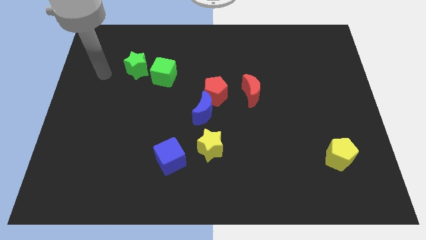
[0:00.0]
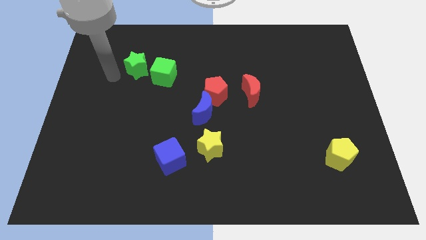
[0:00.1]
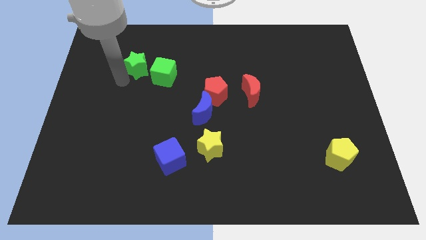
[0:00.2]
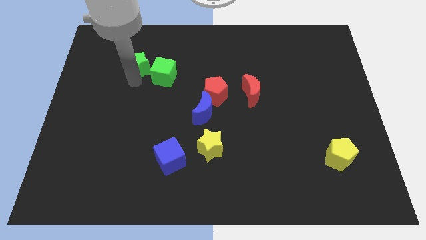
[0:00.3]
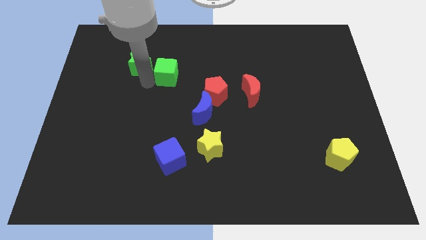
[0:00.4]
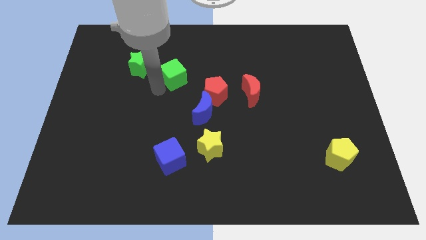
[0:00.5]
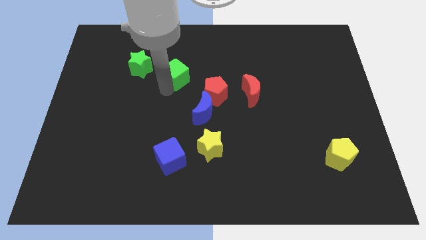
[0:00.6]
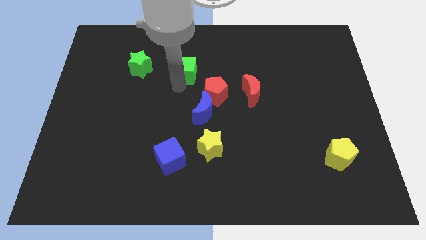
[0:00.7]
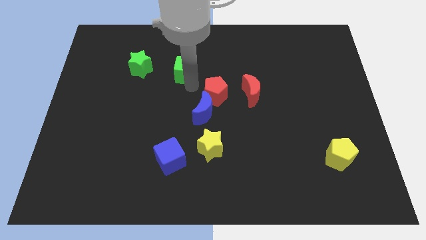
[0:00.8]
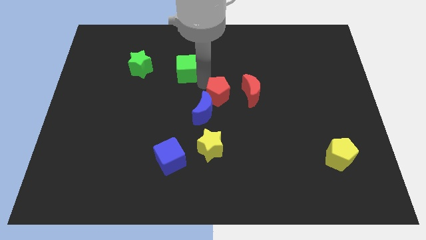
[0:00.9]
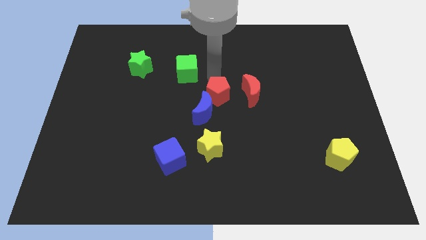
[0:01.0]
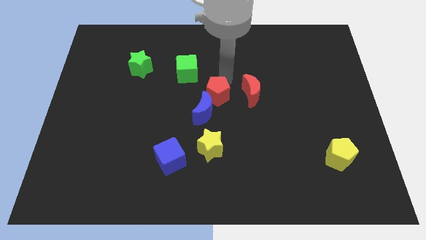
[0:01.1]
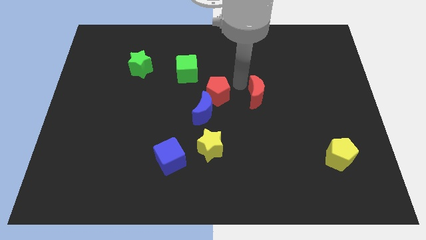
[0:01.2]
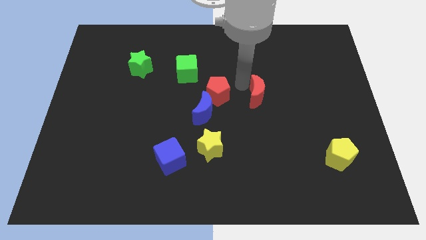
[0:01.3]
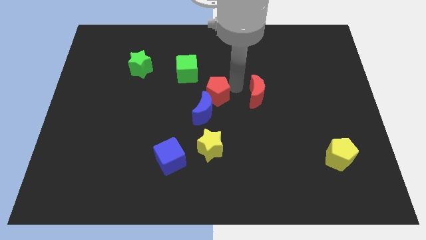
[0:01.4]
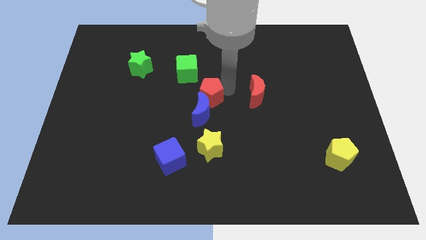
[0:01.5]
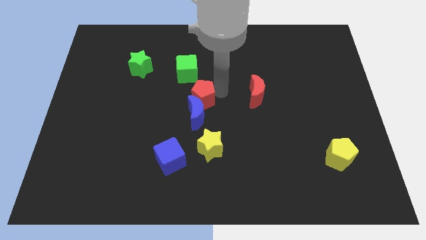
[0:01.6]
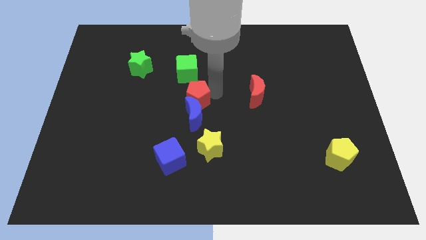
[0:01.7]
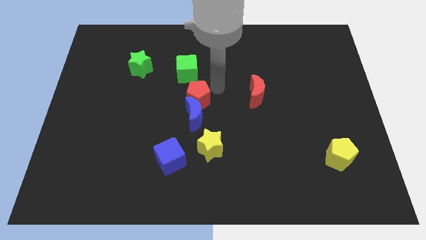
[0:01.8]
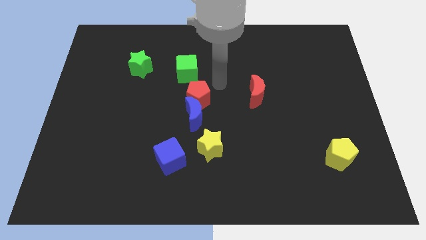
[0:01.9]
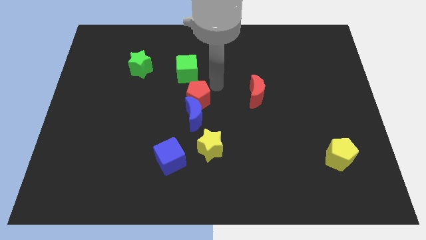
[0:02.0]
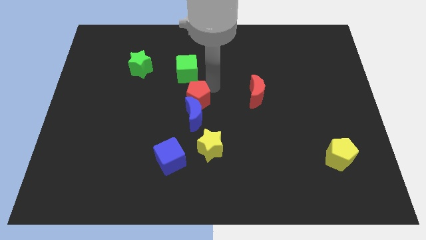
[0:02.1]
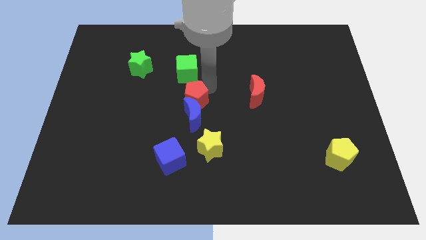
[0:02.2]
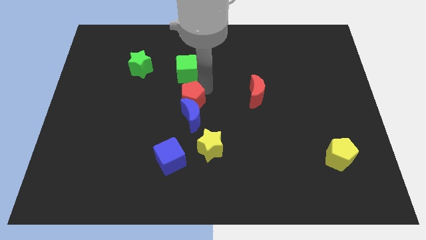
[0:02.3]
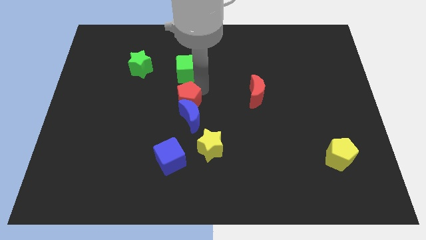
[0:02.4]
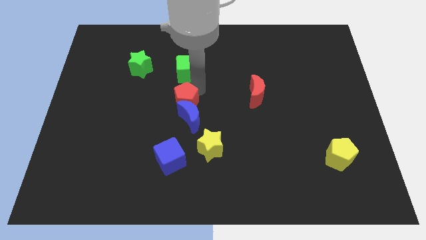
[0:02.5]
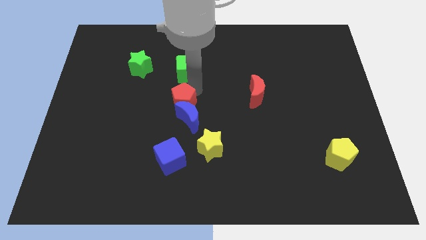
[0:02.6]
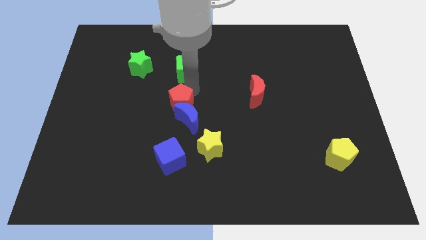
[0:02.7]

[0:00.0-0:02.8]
move the red pentagon somewhat downwards and then to the left

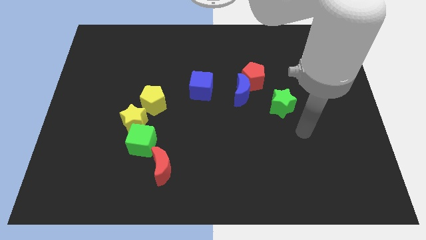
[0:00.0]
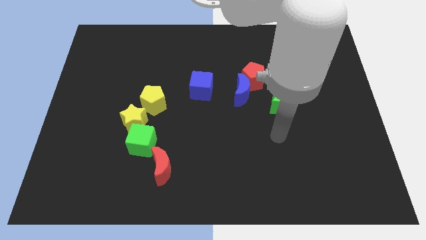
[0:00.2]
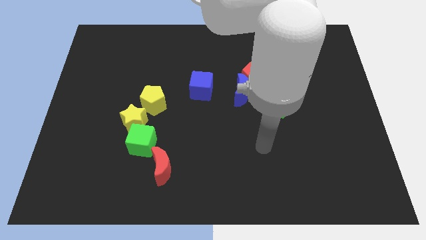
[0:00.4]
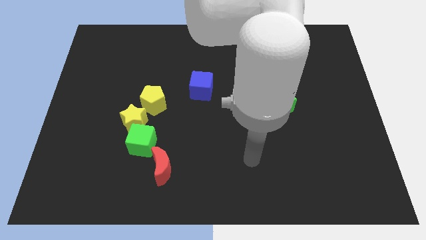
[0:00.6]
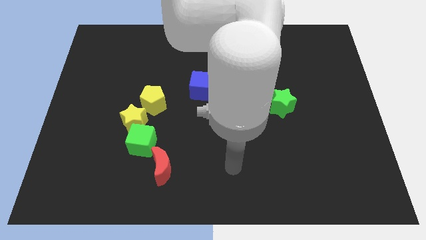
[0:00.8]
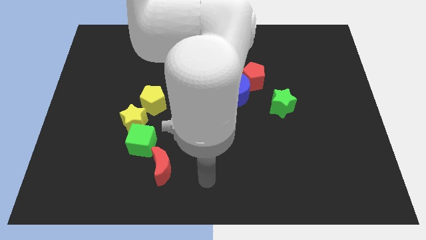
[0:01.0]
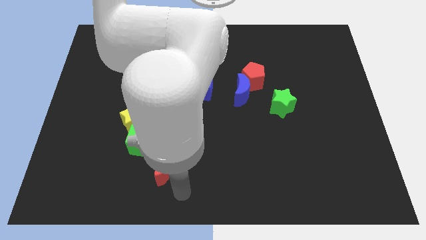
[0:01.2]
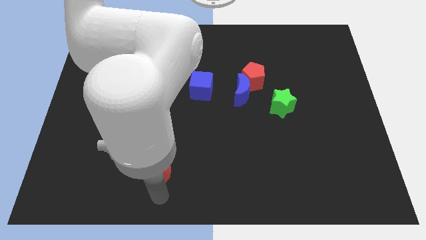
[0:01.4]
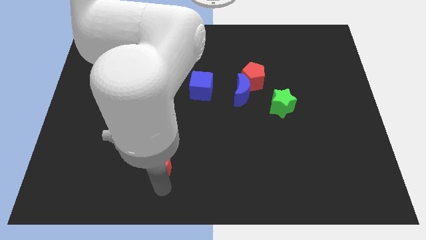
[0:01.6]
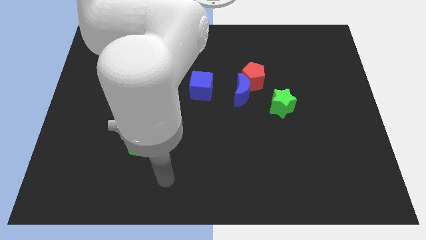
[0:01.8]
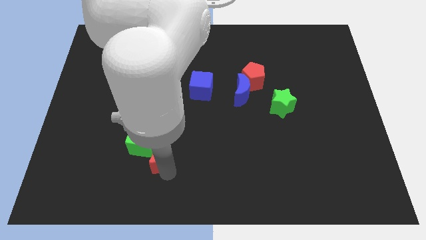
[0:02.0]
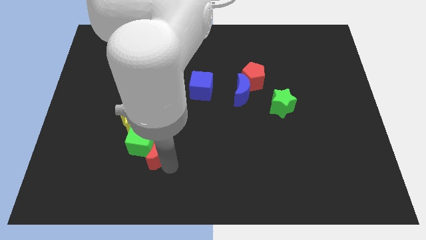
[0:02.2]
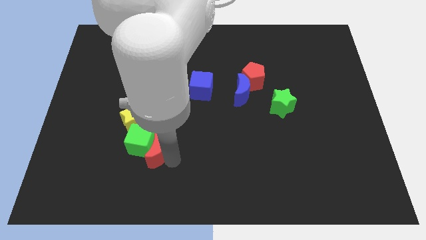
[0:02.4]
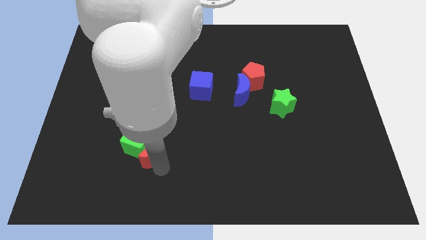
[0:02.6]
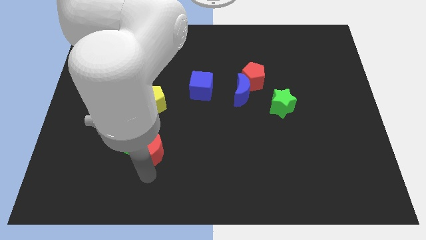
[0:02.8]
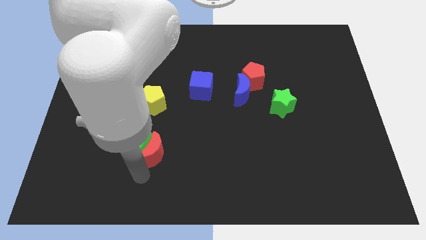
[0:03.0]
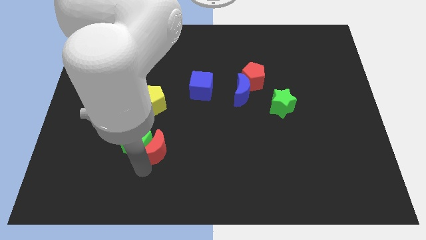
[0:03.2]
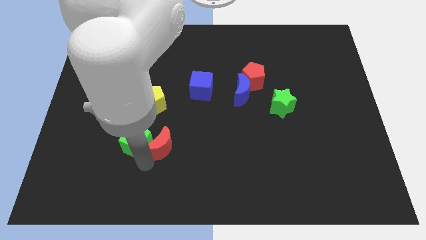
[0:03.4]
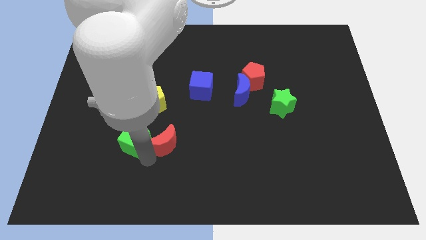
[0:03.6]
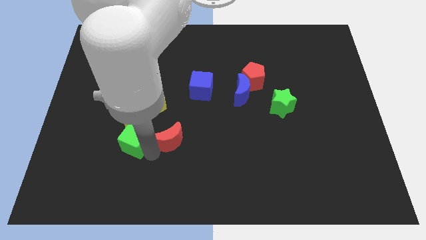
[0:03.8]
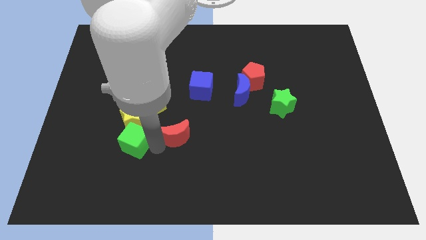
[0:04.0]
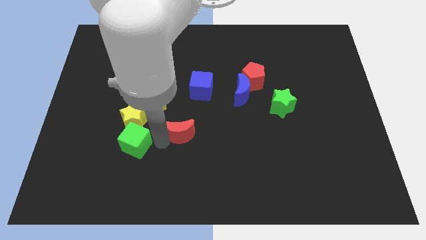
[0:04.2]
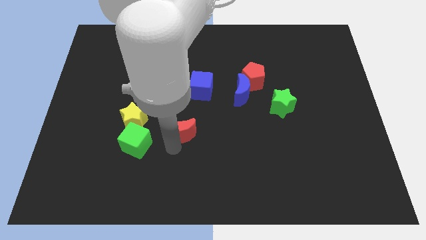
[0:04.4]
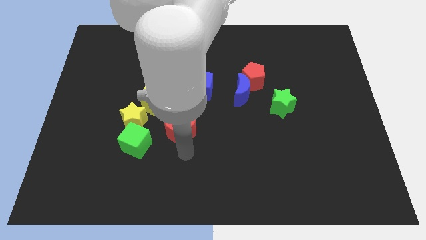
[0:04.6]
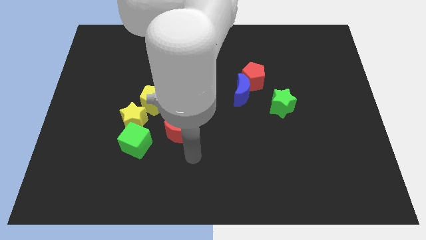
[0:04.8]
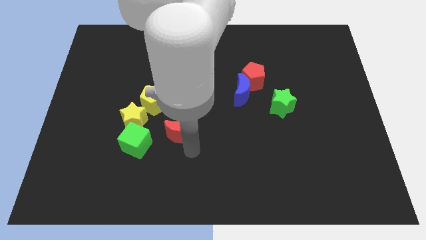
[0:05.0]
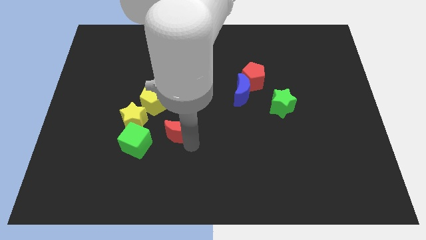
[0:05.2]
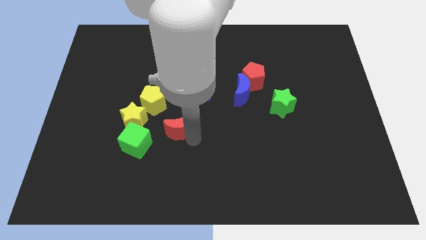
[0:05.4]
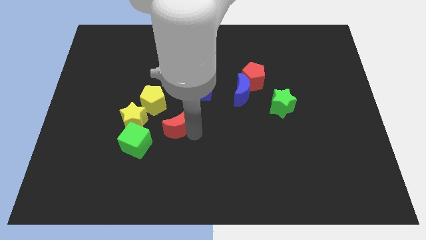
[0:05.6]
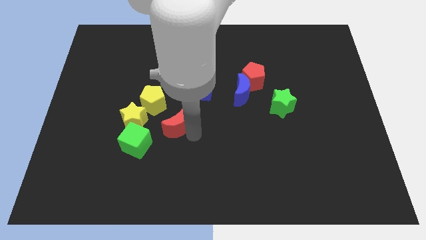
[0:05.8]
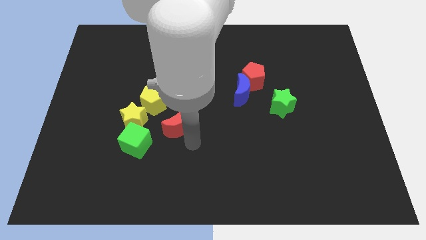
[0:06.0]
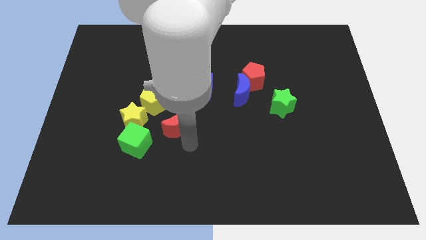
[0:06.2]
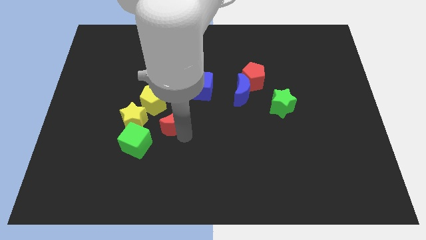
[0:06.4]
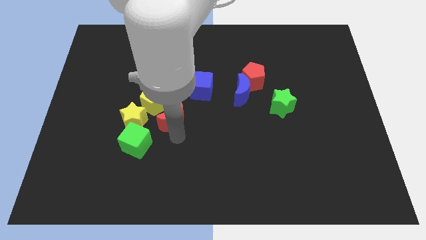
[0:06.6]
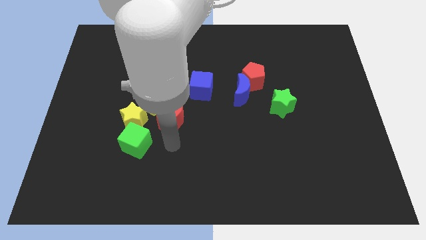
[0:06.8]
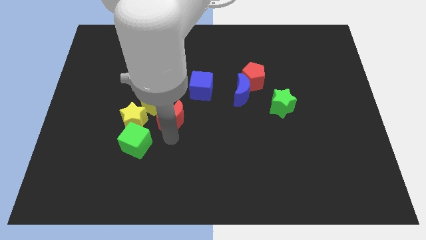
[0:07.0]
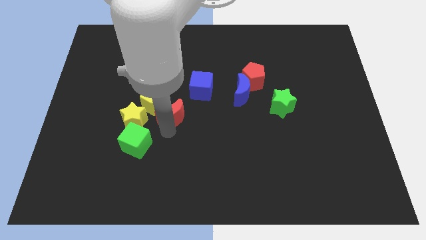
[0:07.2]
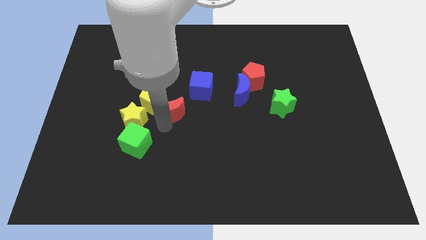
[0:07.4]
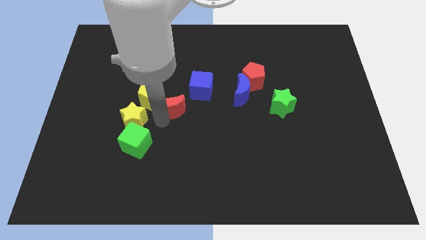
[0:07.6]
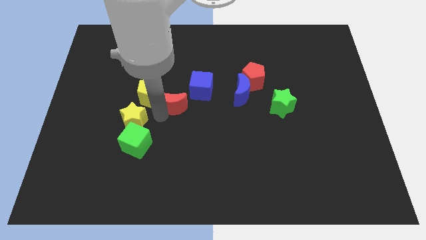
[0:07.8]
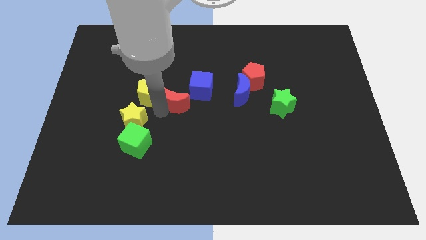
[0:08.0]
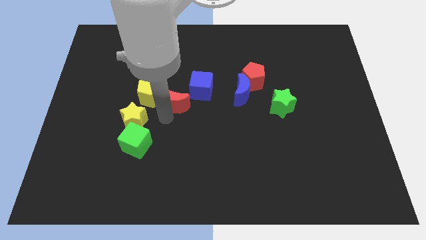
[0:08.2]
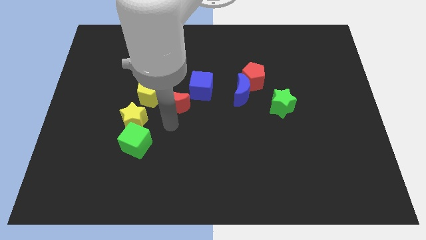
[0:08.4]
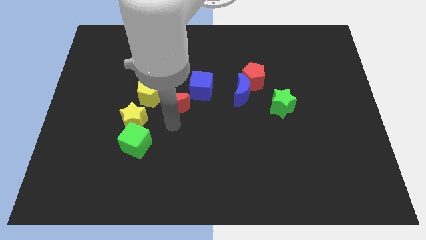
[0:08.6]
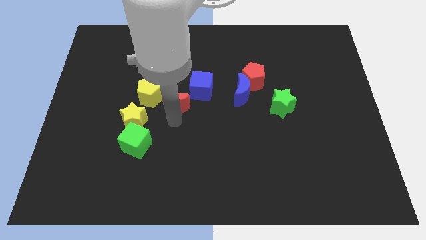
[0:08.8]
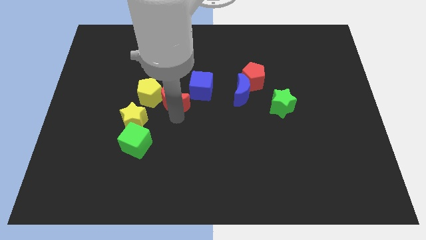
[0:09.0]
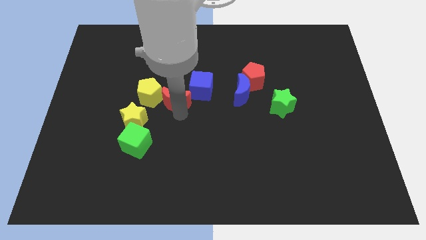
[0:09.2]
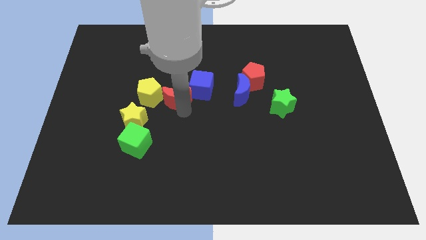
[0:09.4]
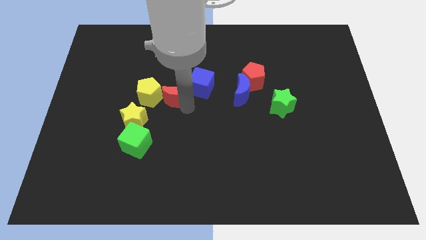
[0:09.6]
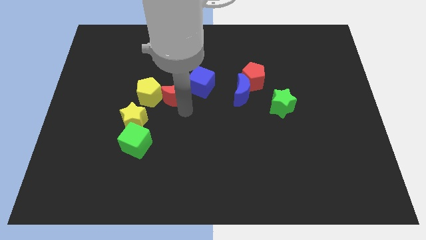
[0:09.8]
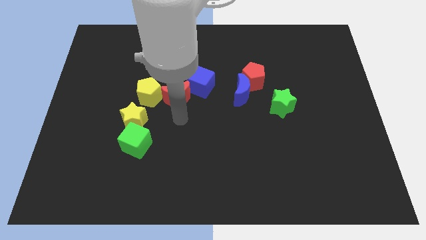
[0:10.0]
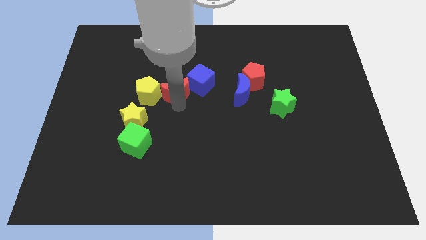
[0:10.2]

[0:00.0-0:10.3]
slide the red moon up
